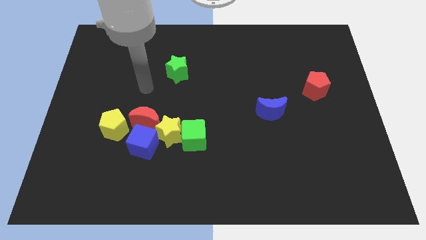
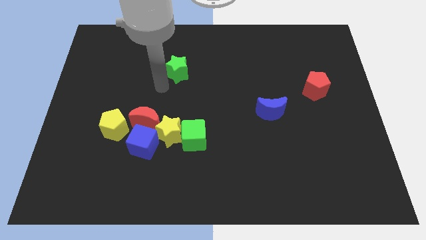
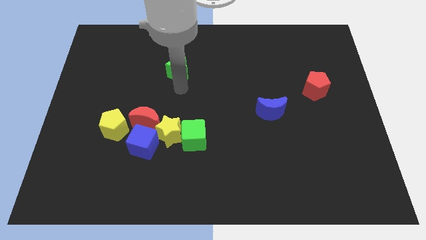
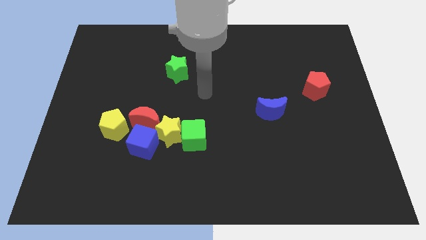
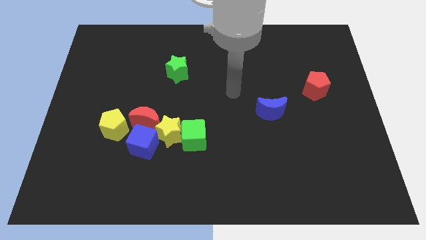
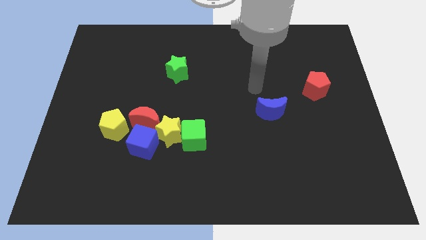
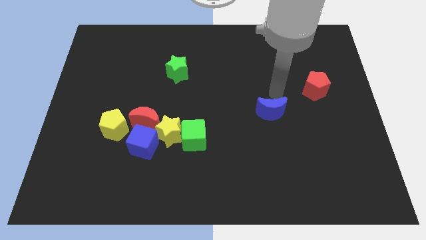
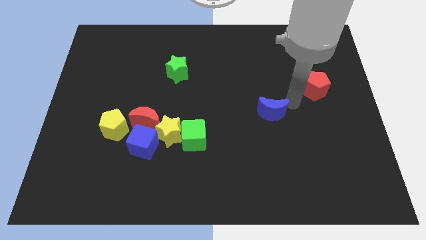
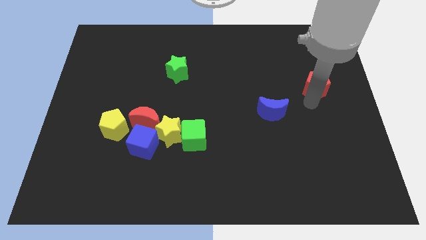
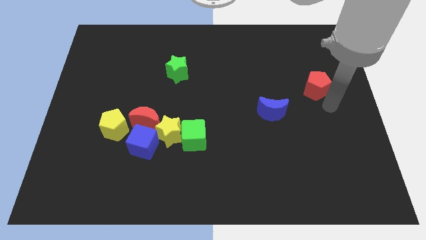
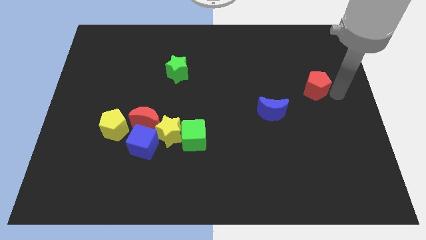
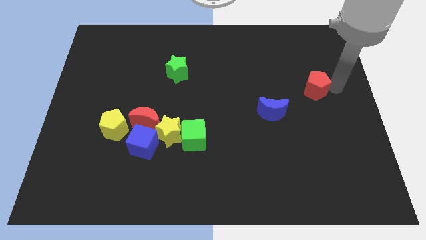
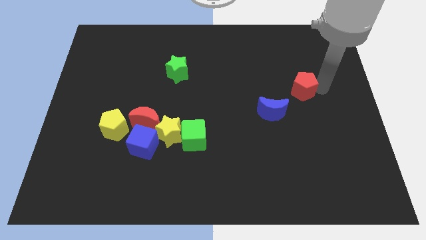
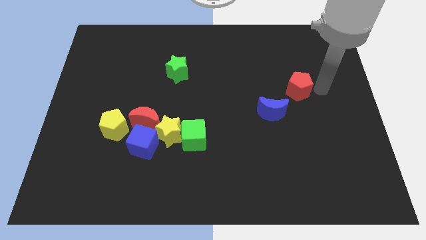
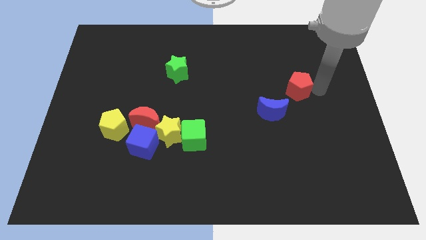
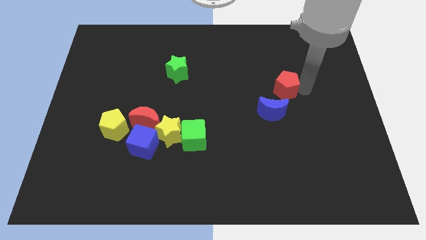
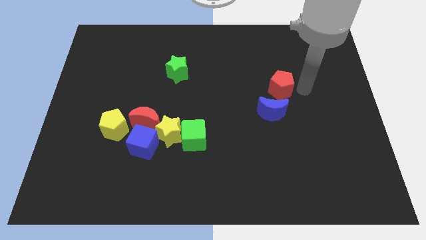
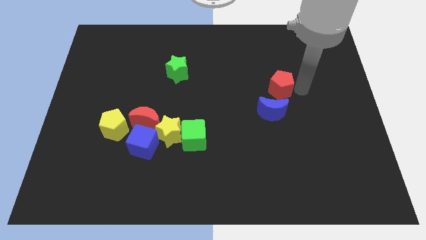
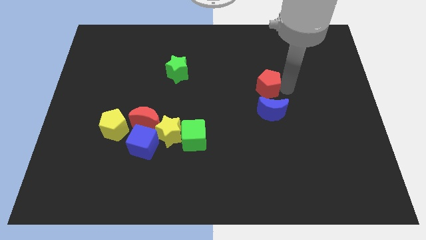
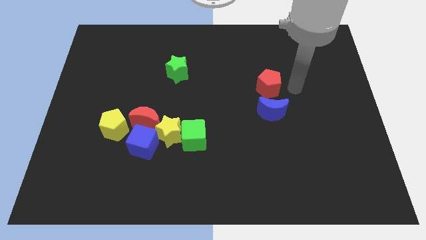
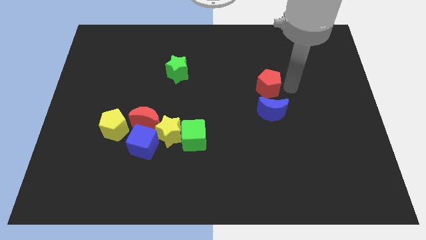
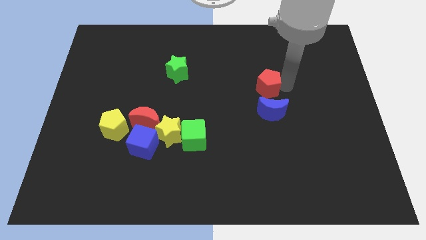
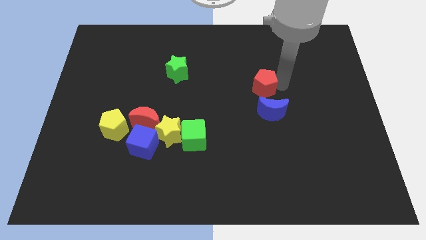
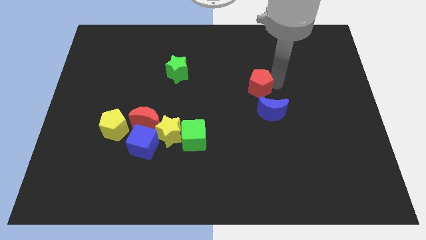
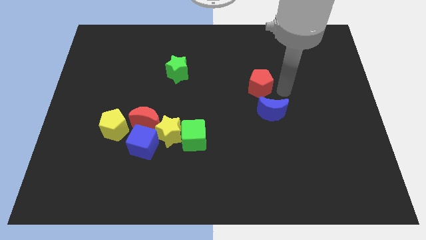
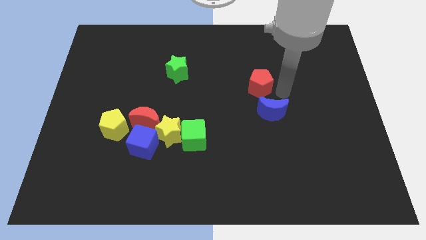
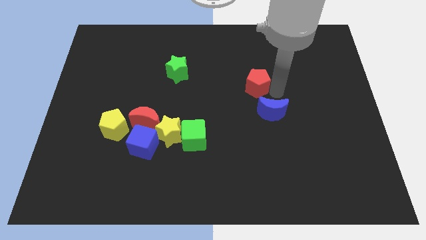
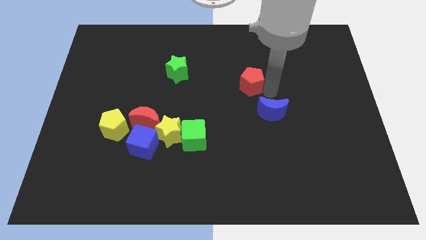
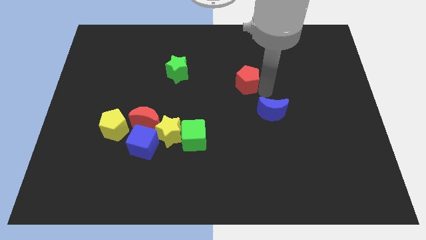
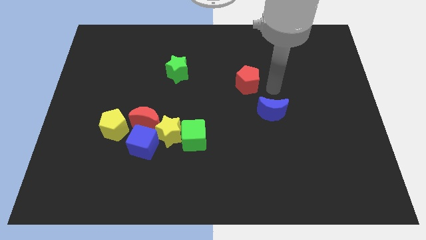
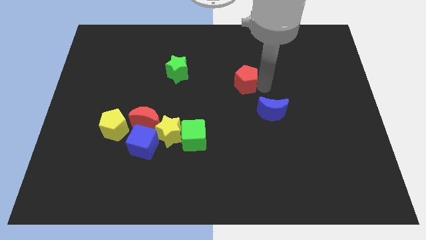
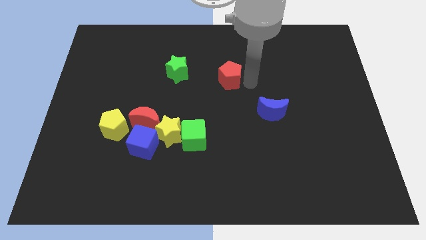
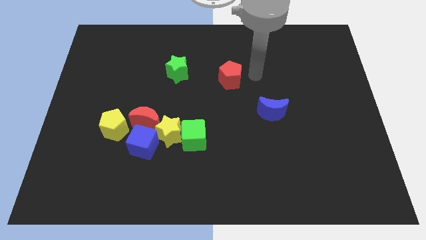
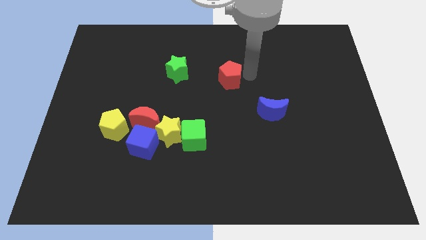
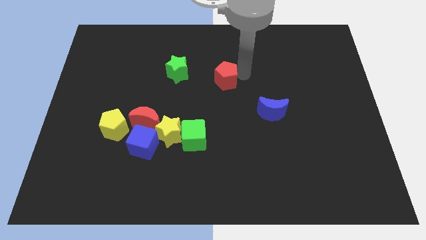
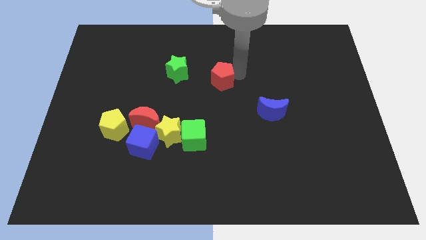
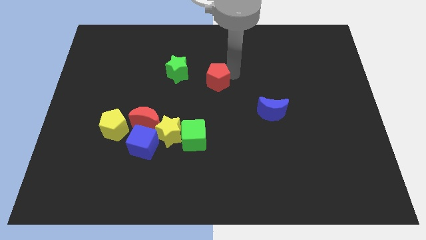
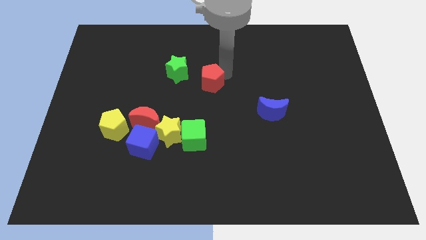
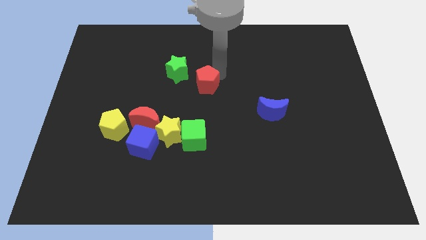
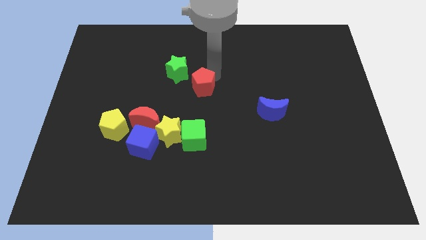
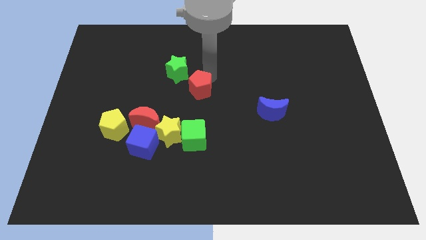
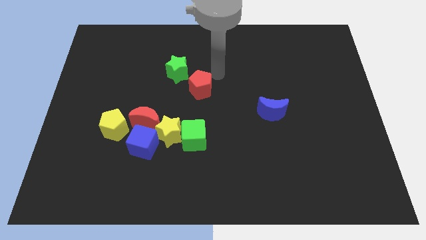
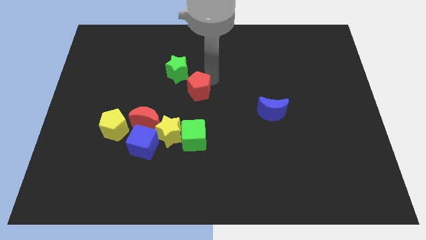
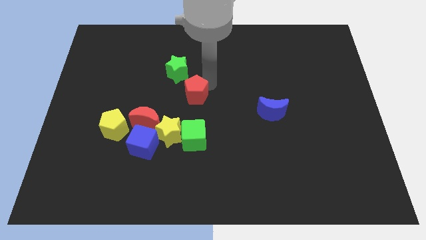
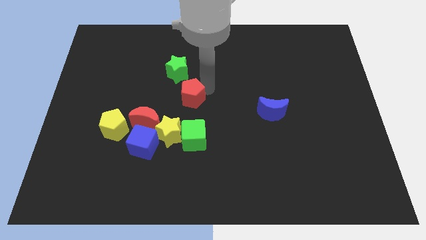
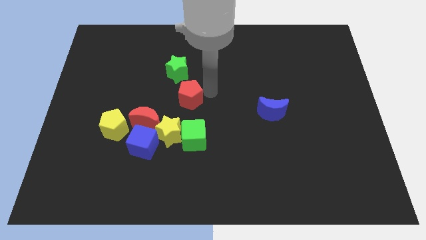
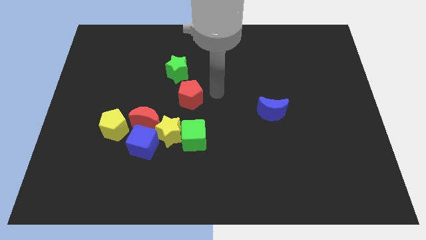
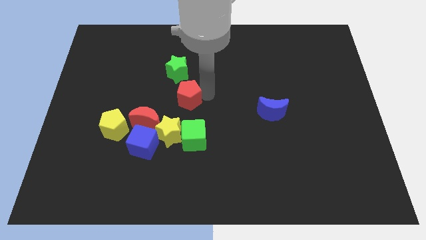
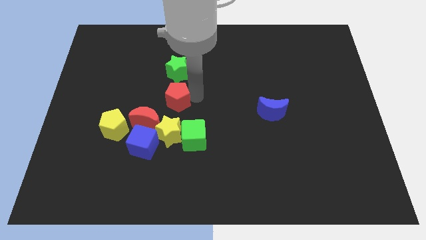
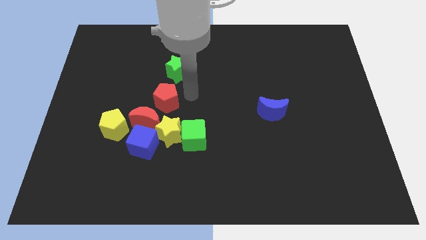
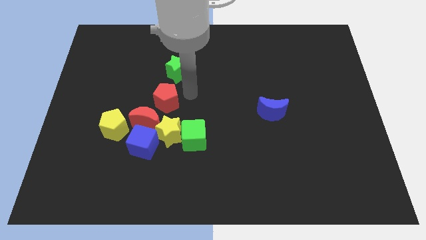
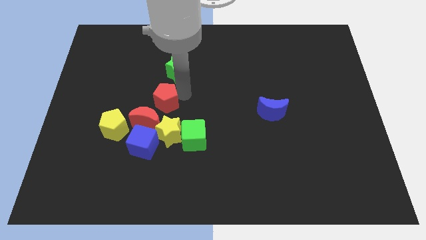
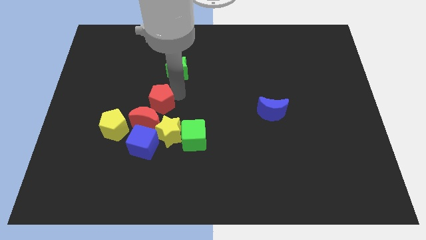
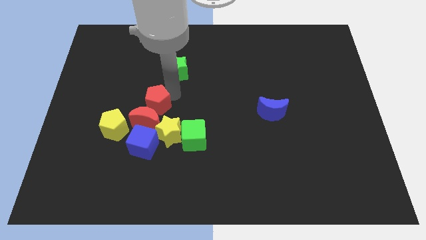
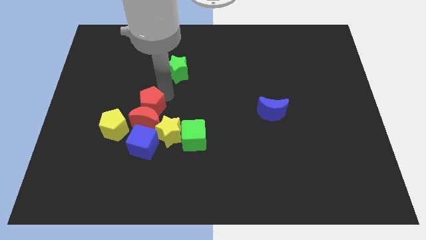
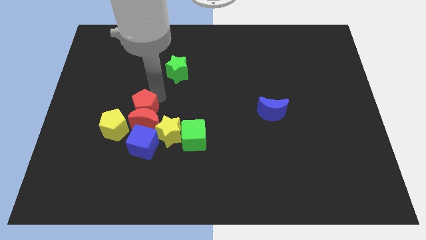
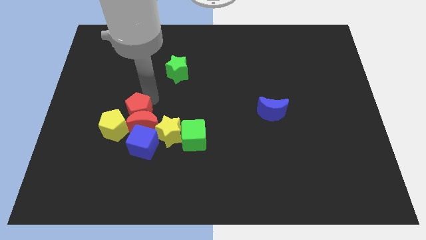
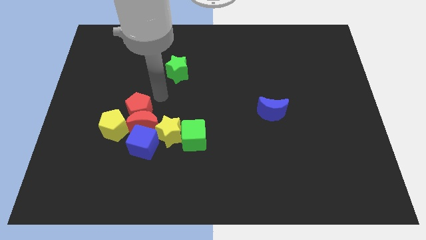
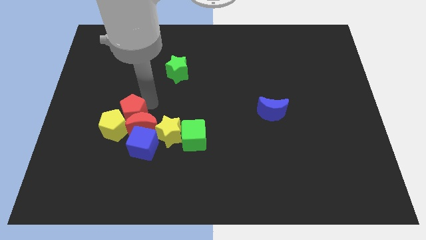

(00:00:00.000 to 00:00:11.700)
push the red pentagon next to the yellow pentagon

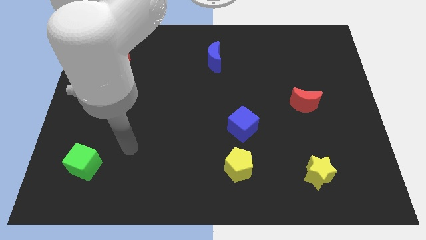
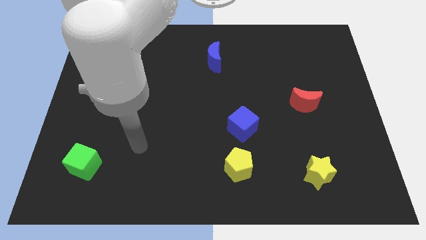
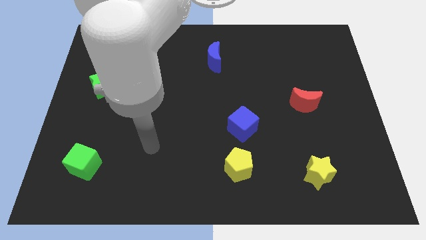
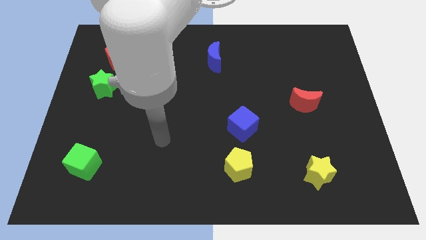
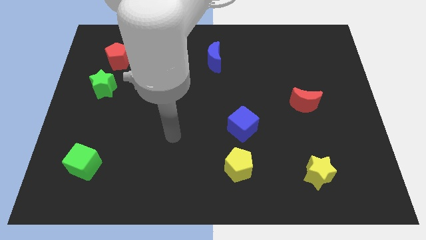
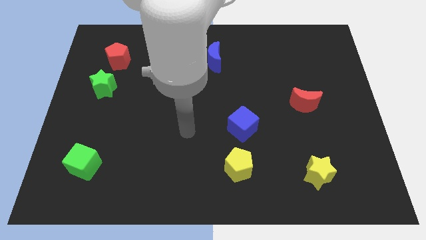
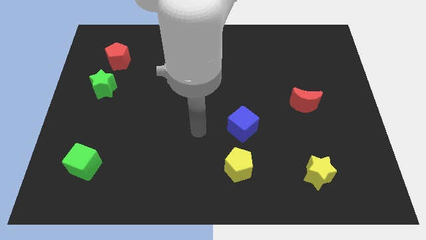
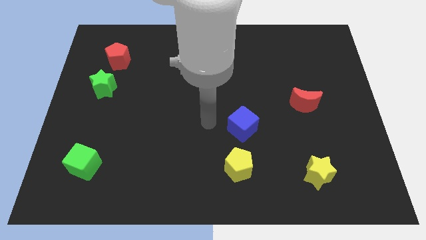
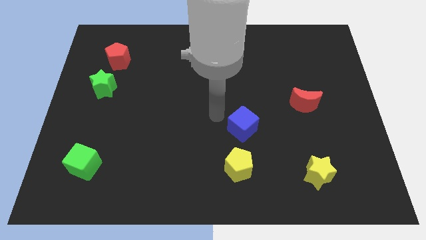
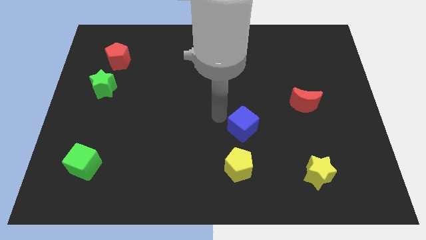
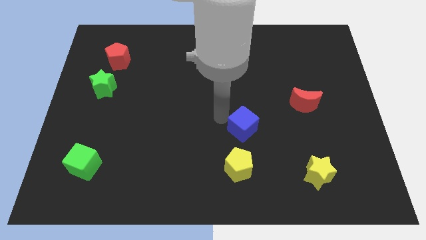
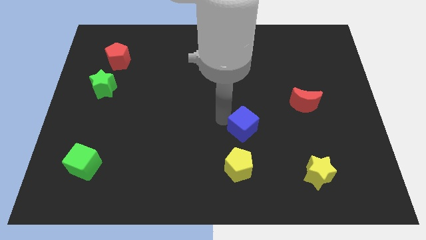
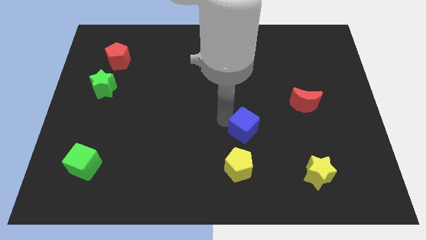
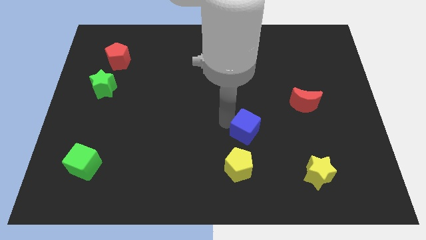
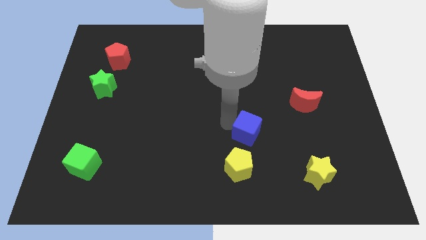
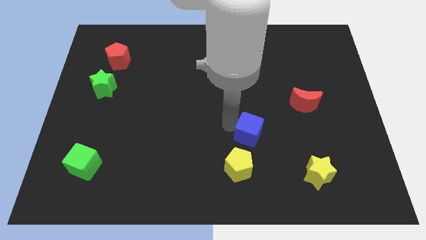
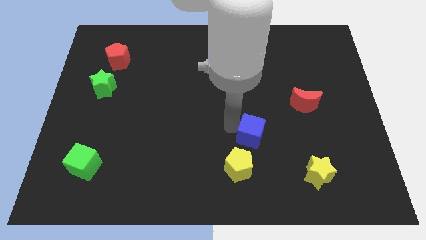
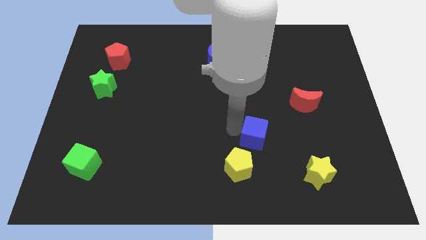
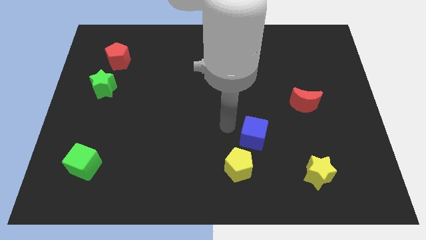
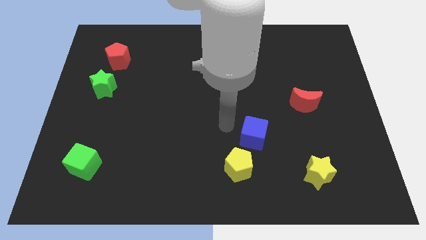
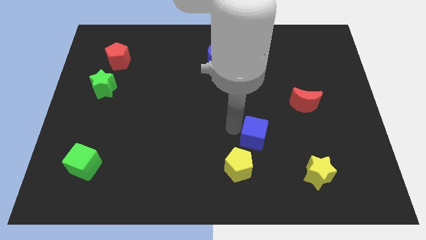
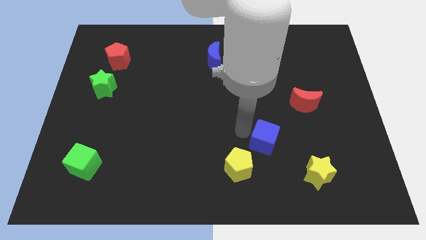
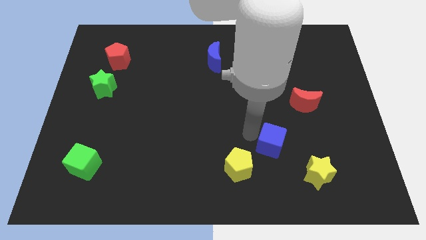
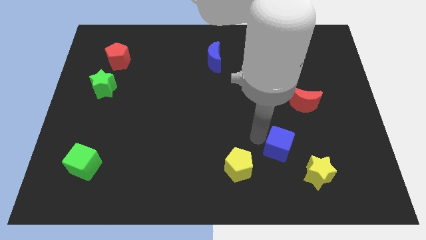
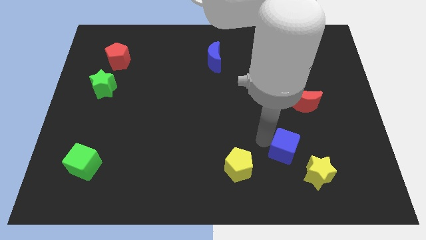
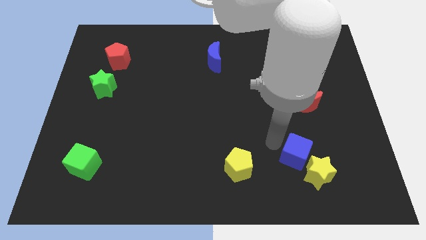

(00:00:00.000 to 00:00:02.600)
slide the blue cube next to the yellow star
